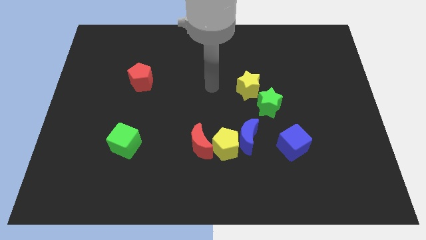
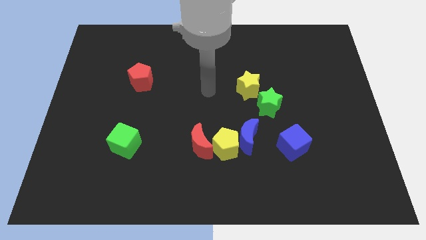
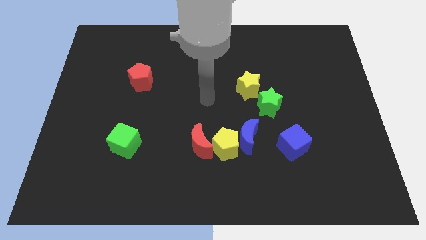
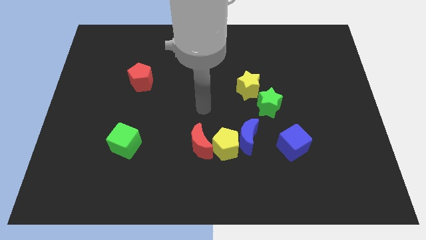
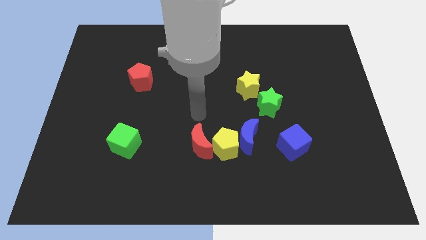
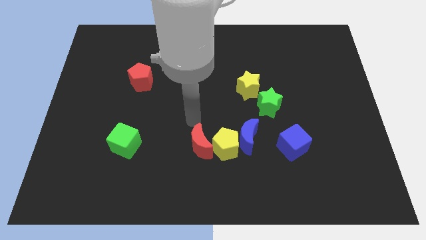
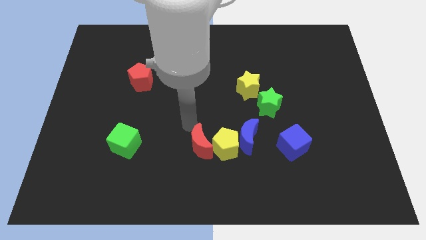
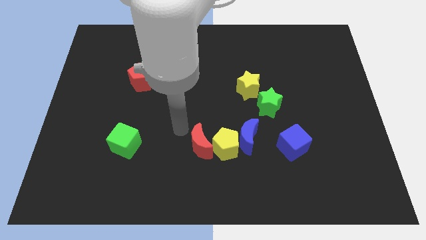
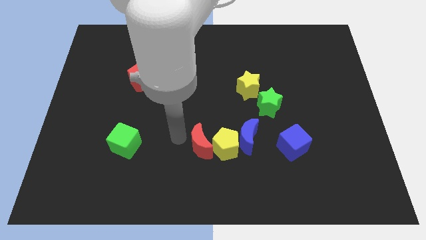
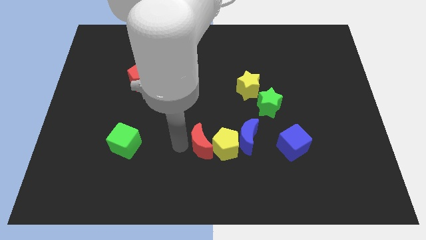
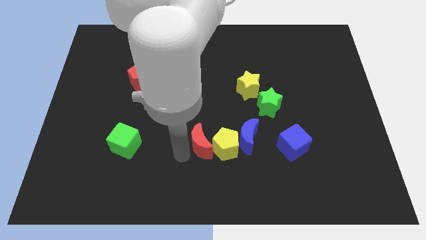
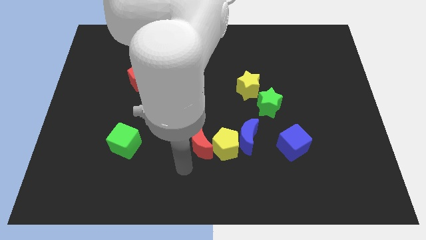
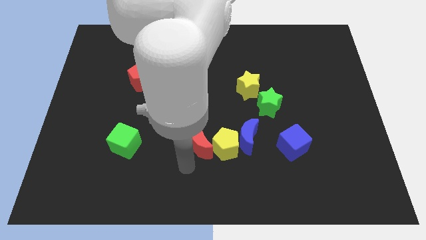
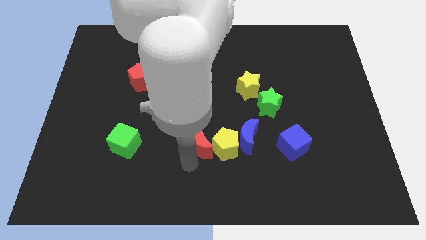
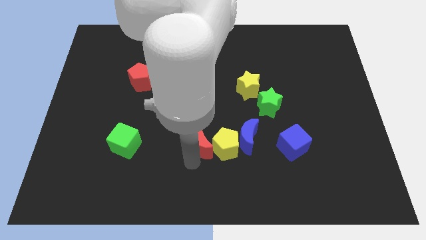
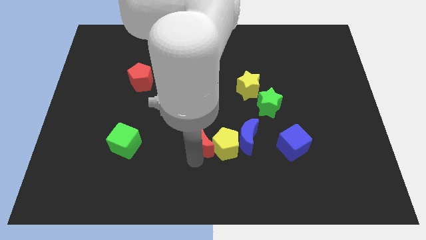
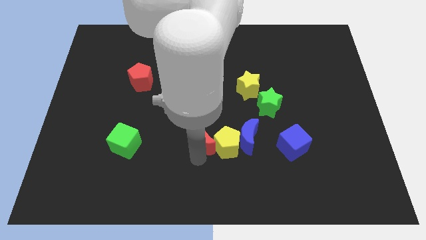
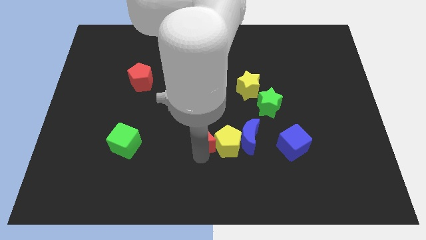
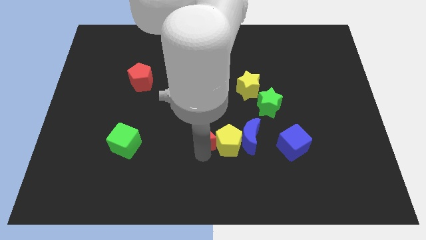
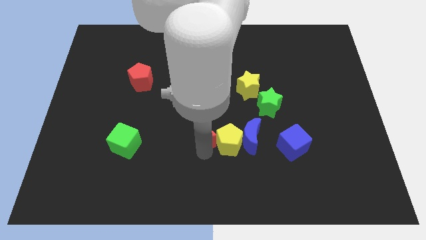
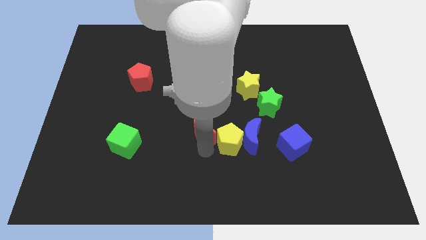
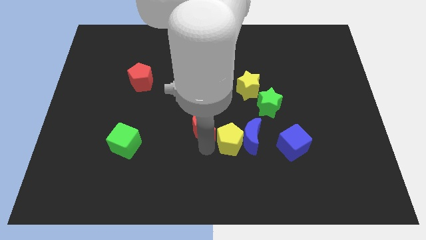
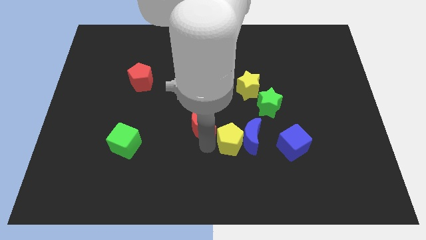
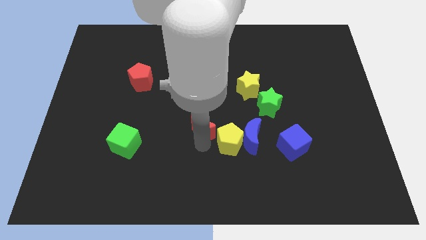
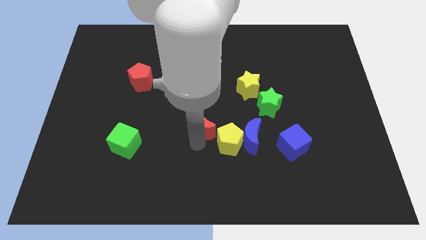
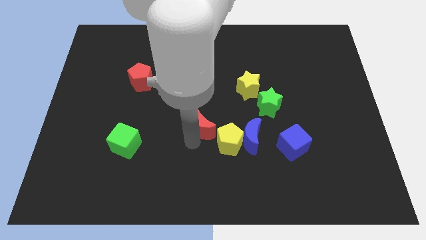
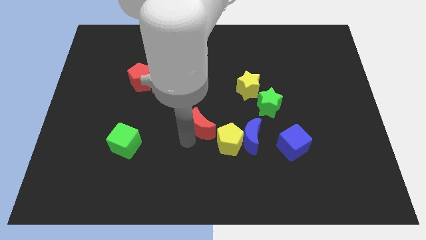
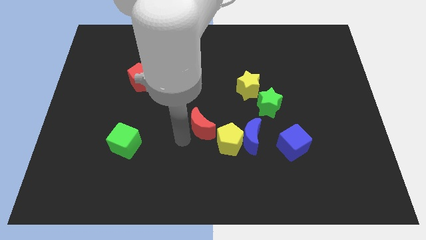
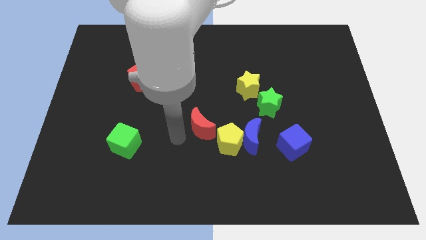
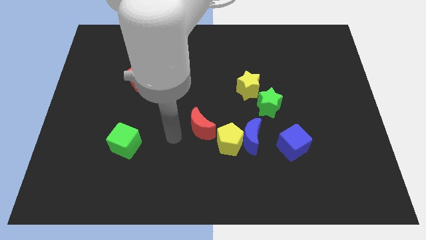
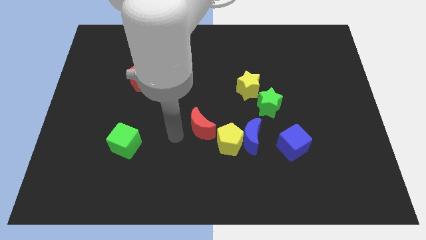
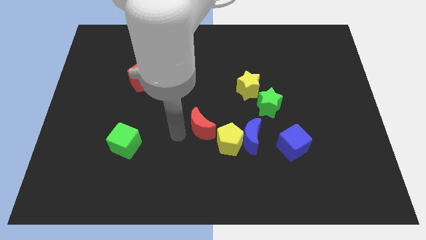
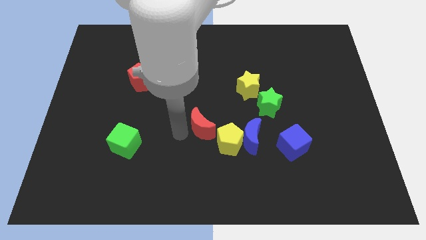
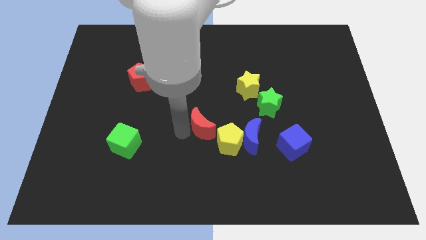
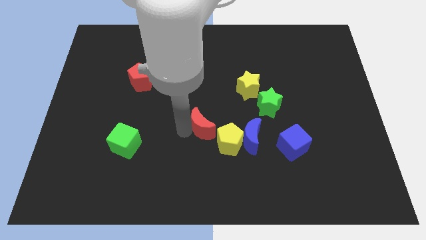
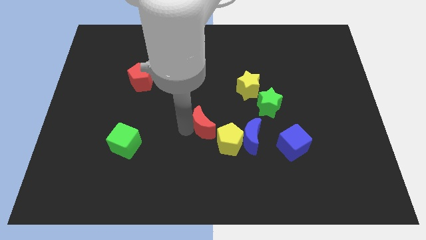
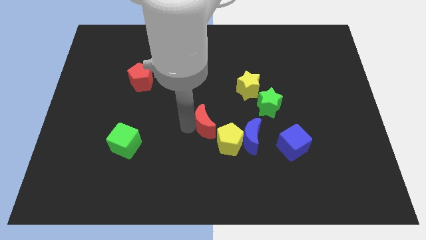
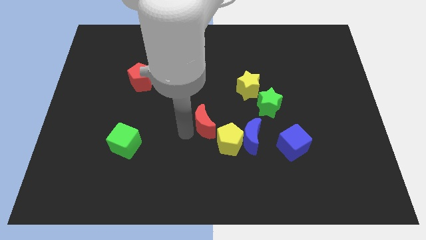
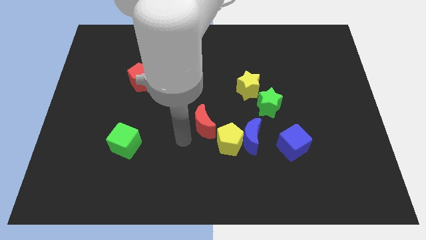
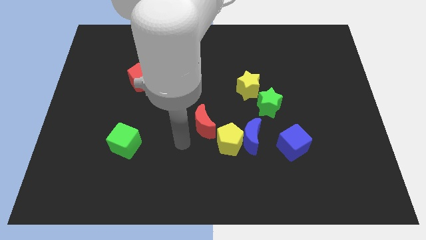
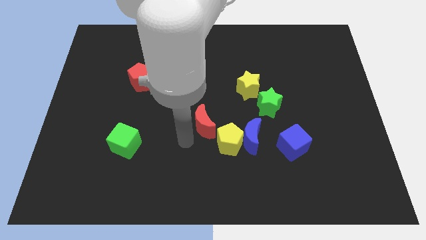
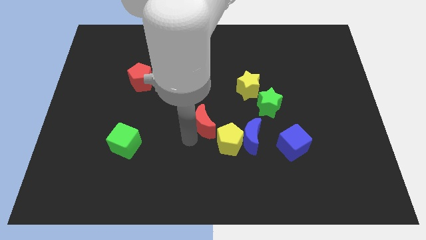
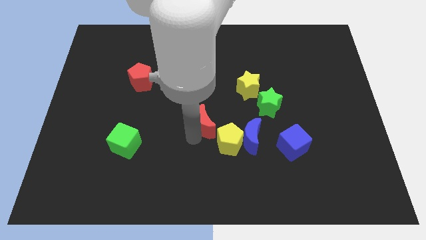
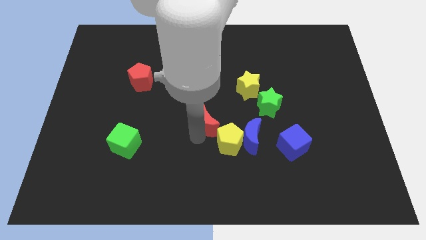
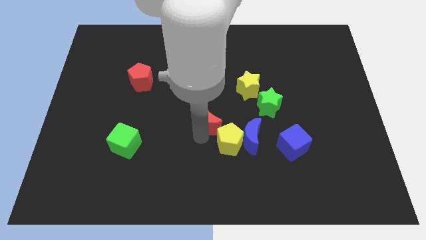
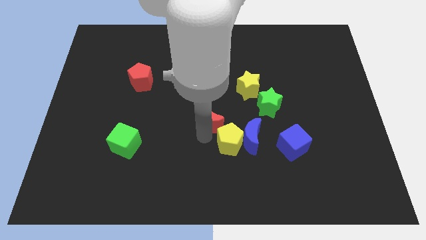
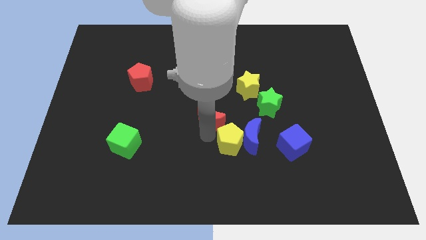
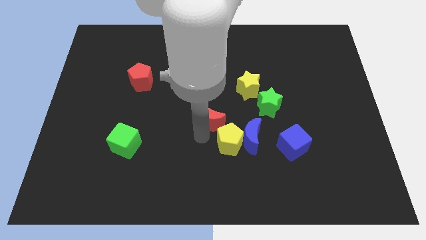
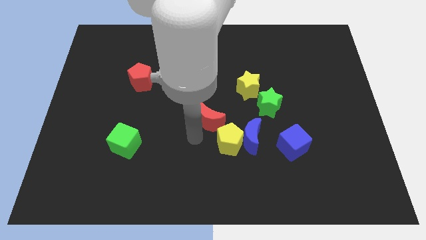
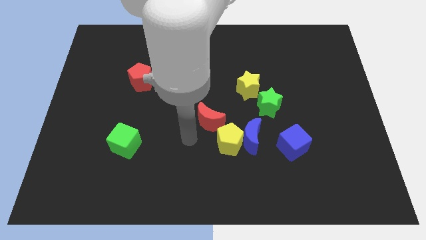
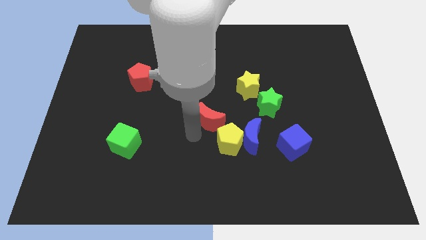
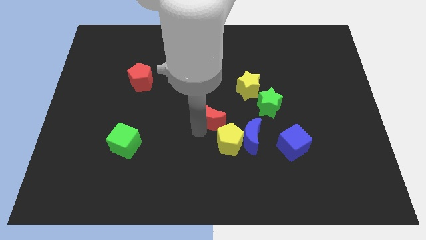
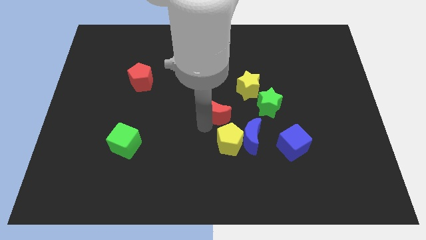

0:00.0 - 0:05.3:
slide the red moon diagonally down and to the left of the yellow star

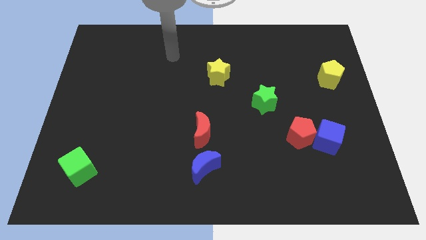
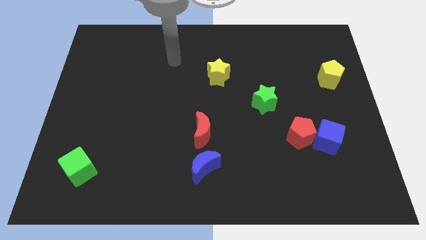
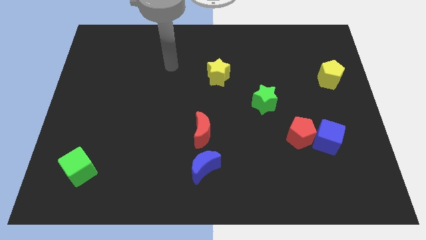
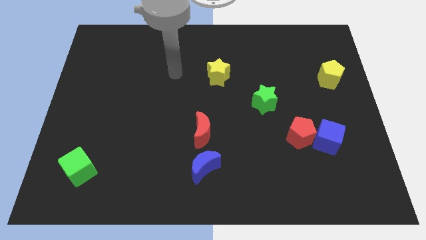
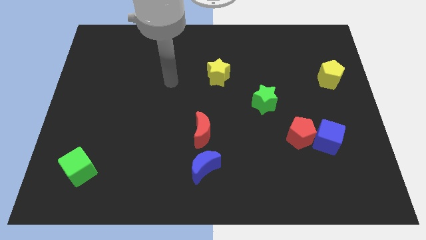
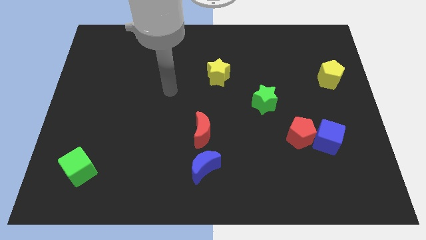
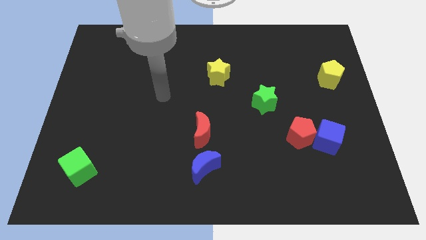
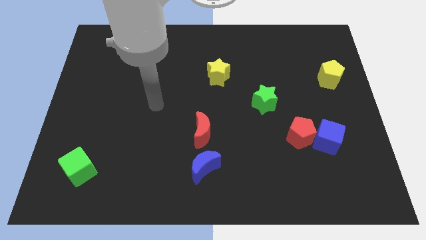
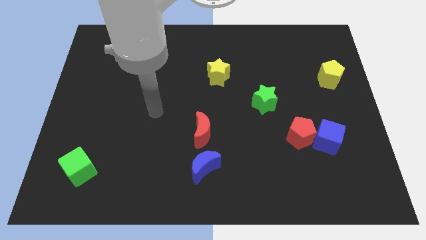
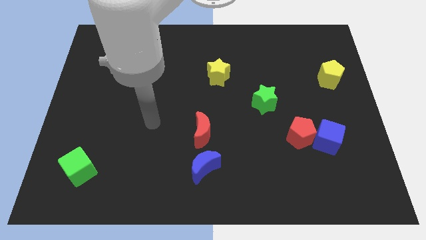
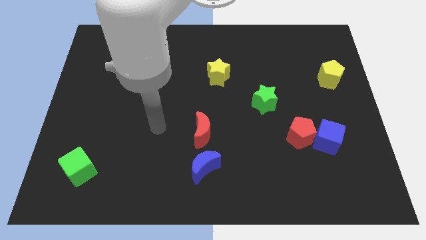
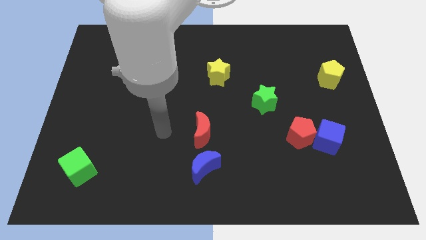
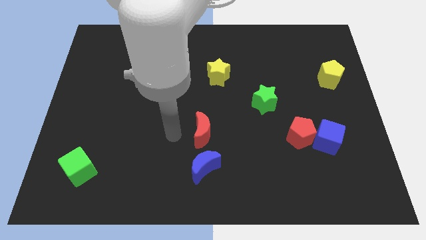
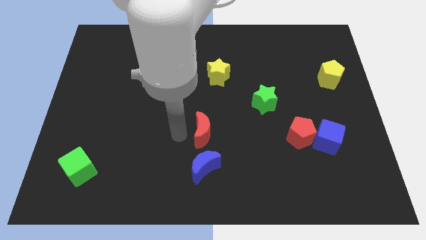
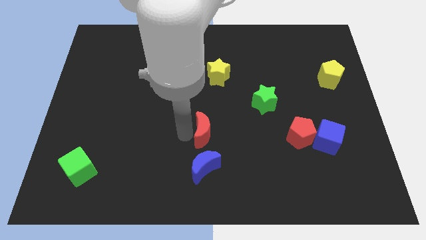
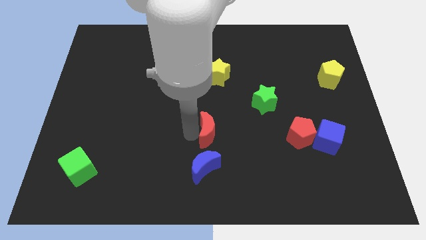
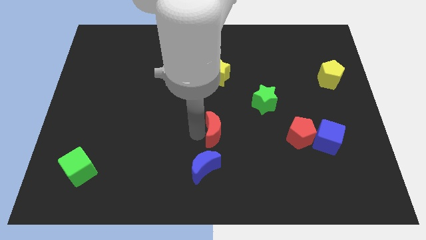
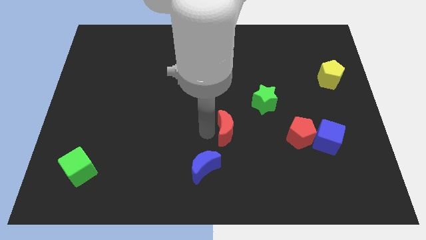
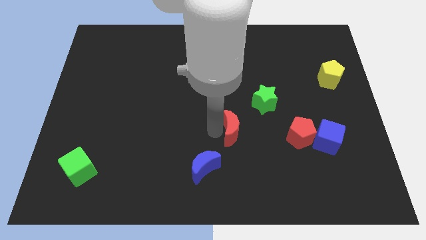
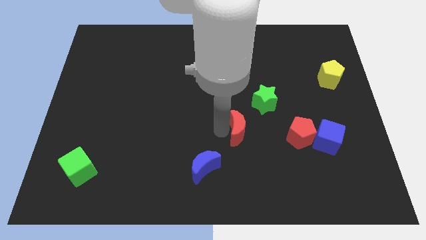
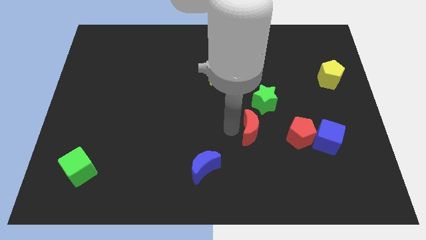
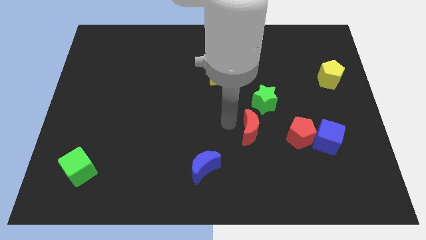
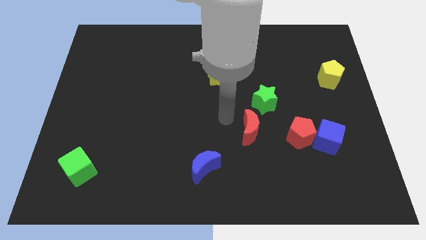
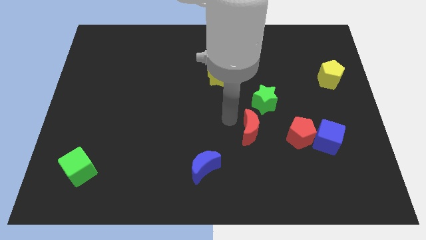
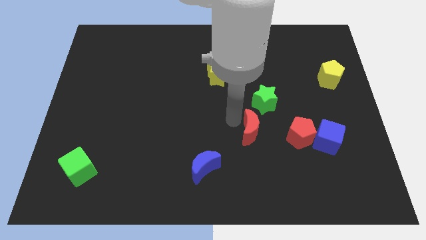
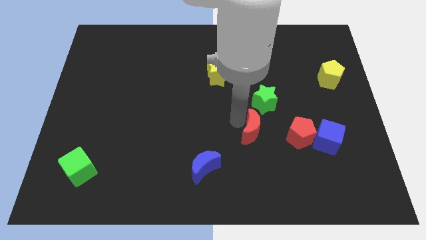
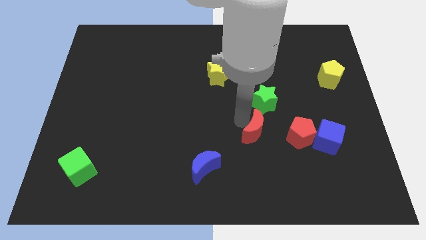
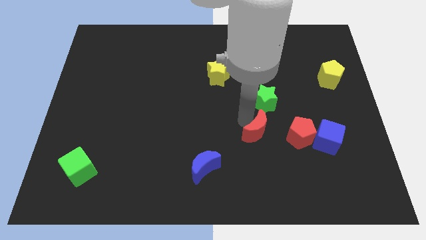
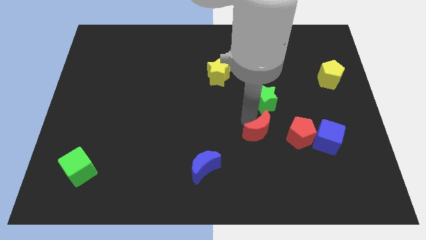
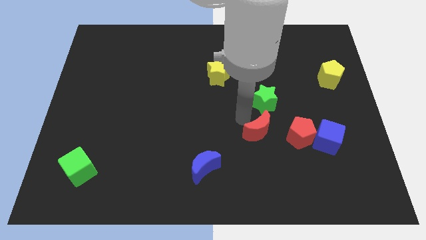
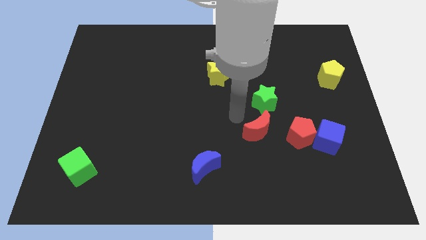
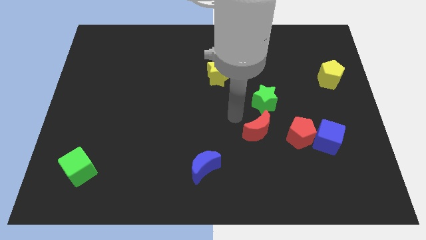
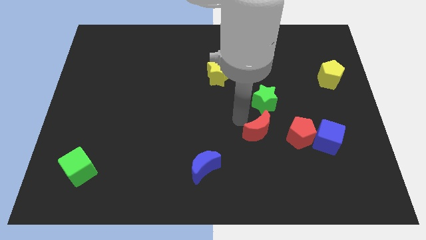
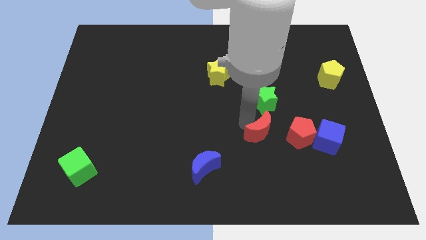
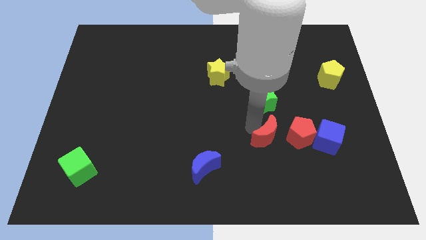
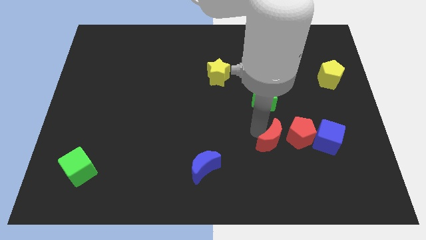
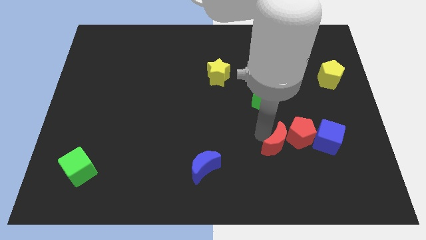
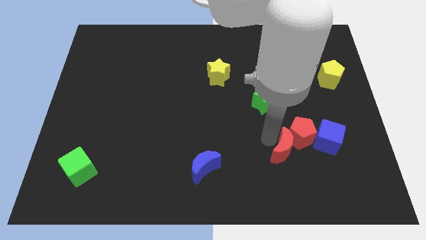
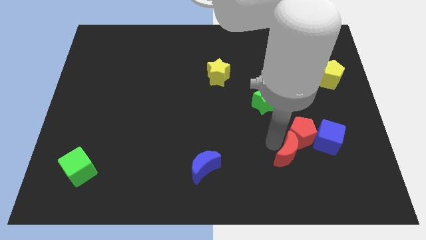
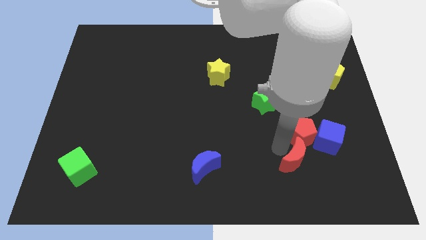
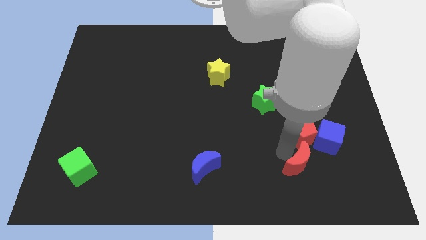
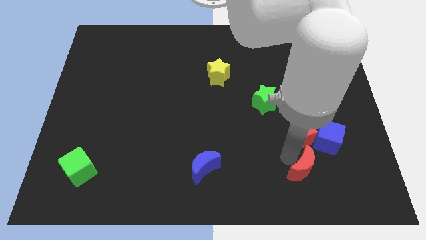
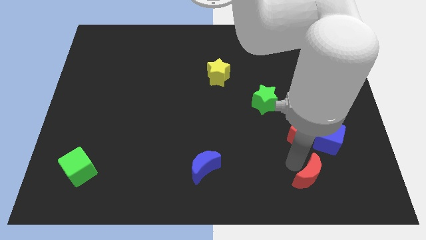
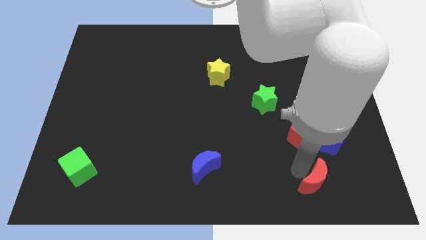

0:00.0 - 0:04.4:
push the red moon below the blue cube
